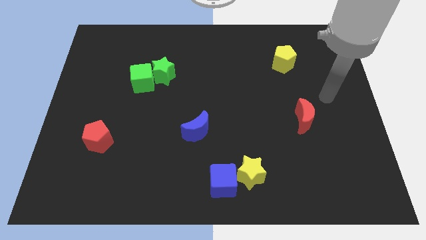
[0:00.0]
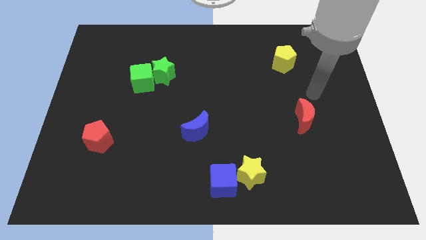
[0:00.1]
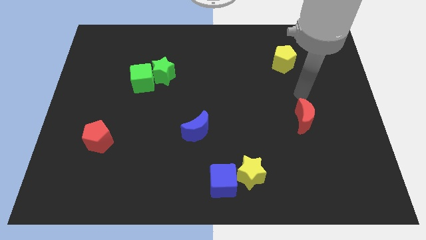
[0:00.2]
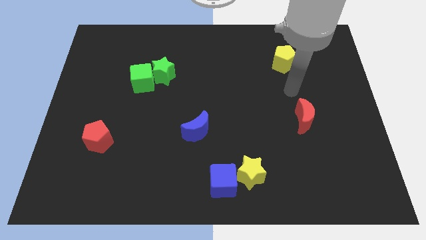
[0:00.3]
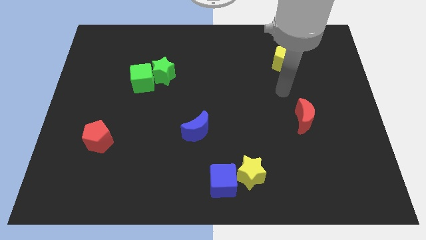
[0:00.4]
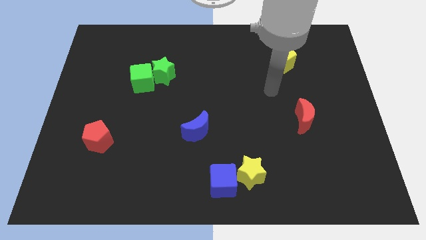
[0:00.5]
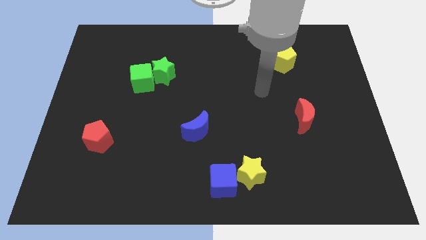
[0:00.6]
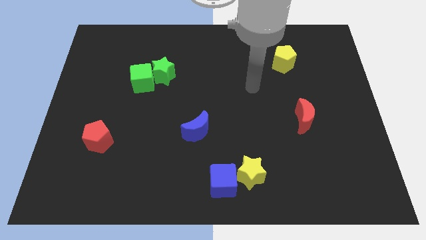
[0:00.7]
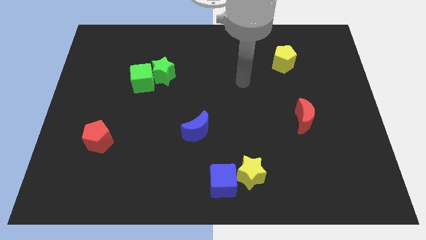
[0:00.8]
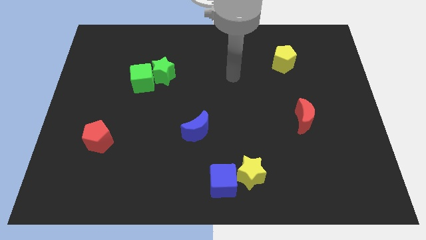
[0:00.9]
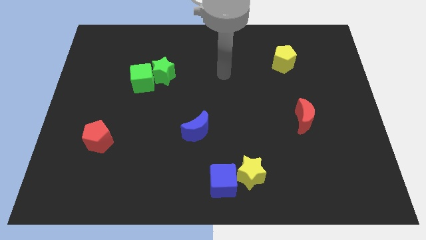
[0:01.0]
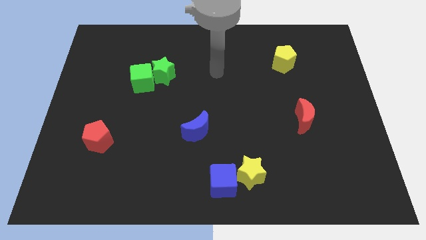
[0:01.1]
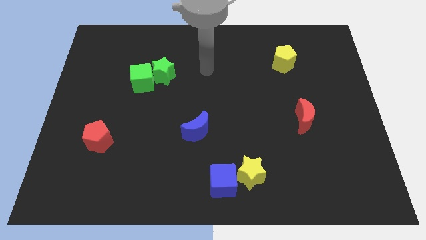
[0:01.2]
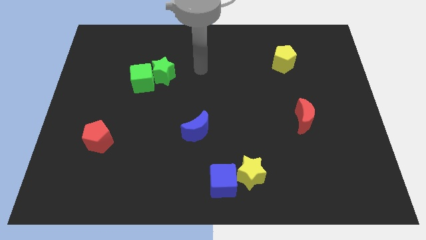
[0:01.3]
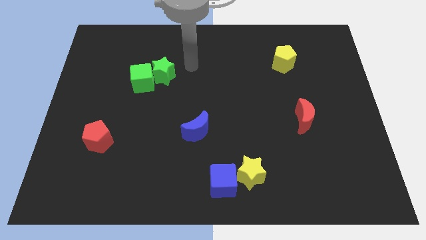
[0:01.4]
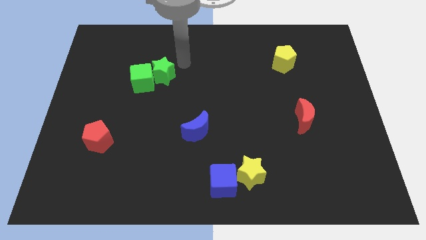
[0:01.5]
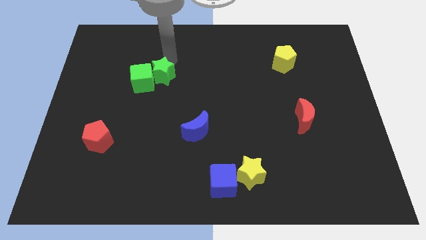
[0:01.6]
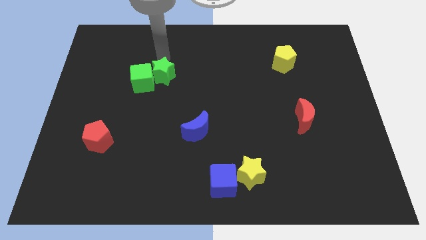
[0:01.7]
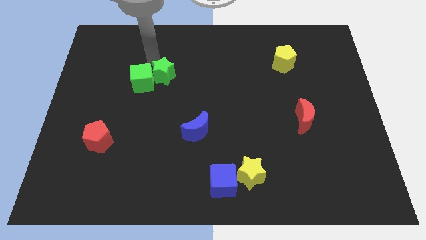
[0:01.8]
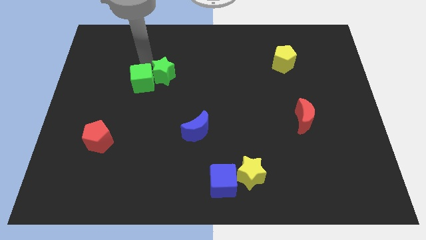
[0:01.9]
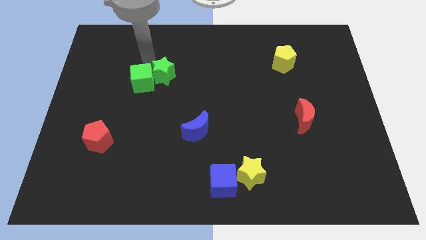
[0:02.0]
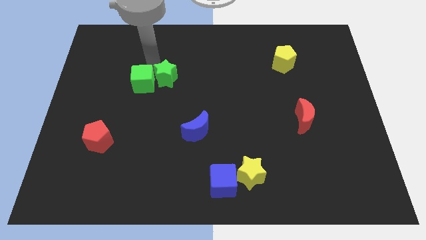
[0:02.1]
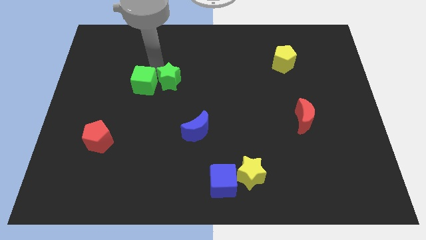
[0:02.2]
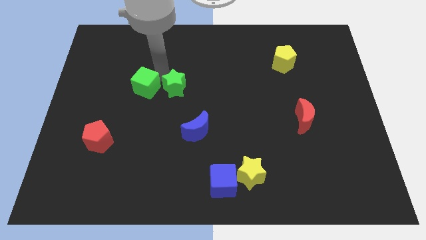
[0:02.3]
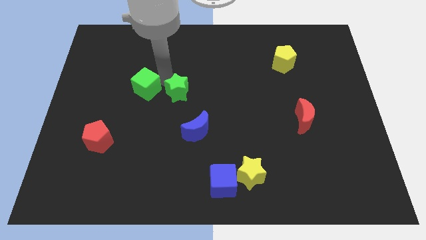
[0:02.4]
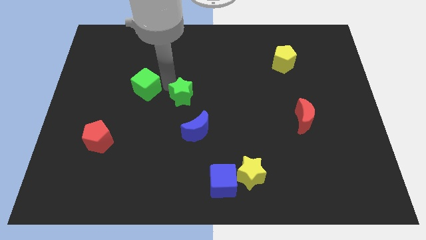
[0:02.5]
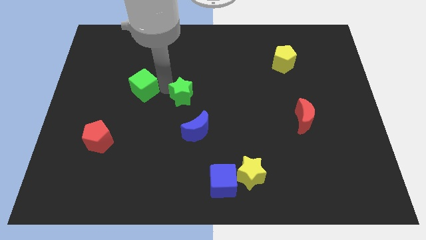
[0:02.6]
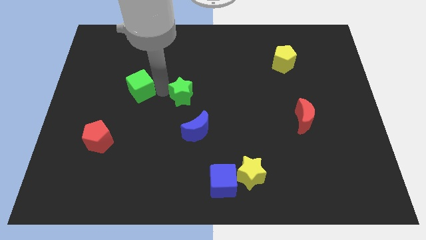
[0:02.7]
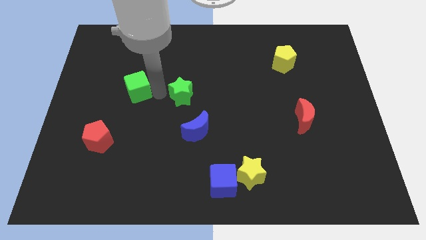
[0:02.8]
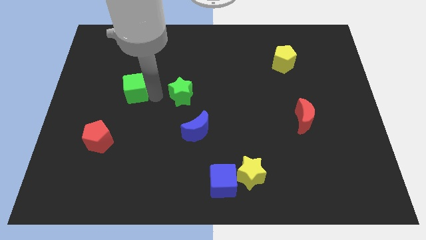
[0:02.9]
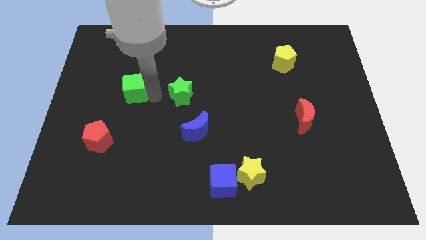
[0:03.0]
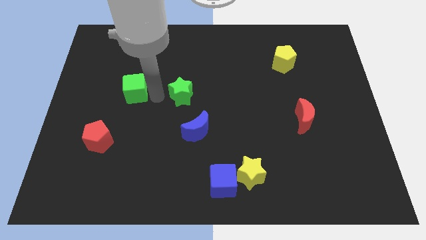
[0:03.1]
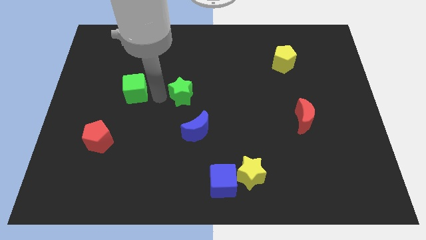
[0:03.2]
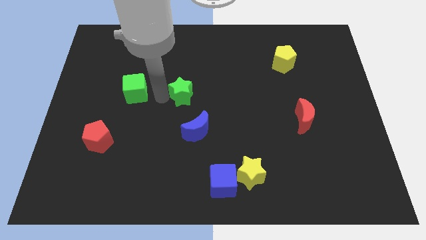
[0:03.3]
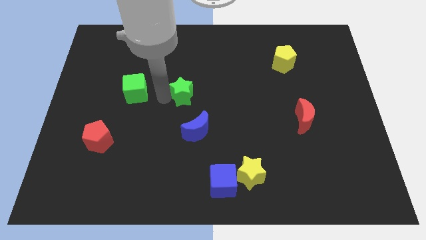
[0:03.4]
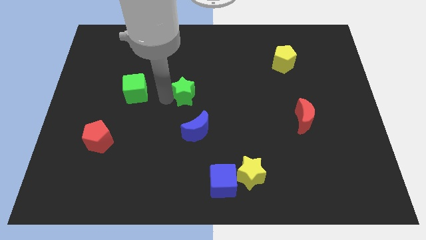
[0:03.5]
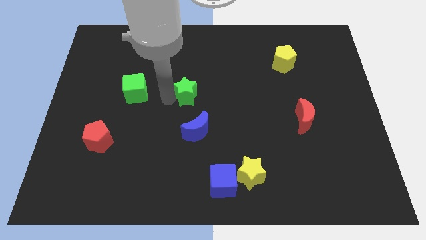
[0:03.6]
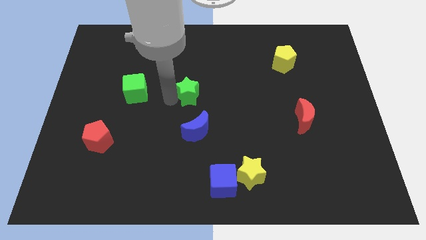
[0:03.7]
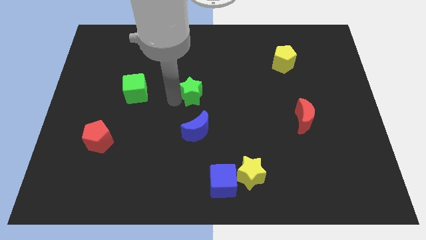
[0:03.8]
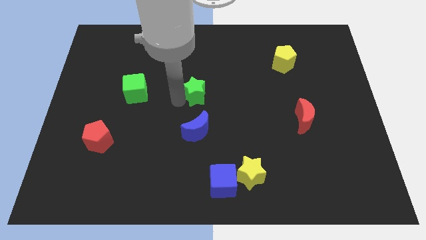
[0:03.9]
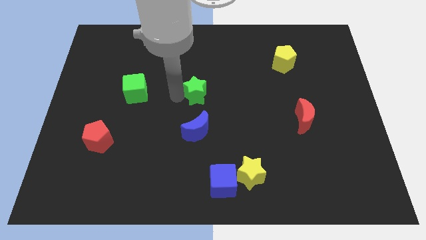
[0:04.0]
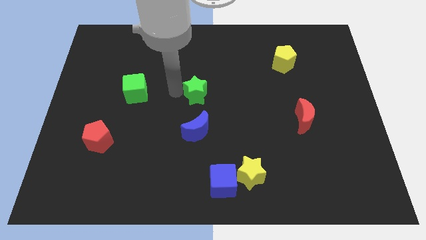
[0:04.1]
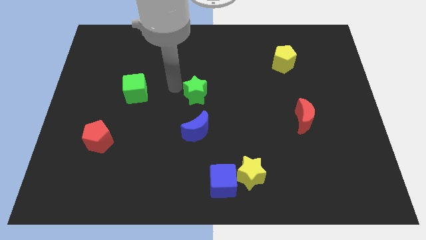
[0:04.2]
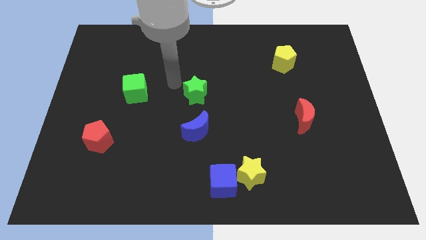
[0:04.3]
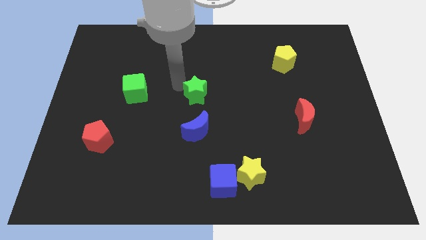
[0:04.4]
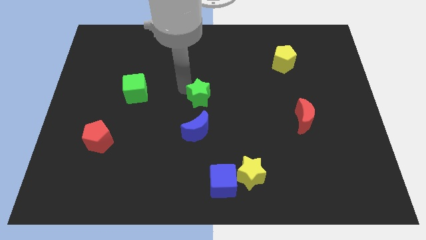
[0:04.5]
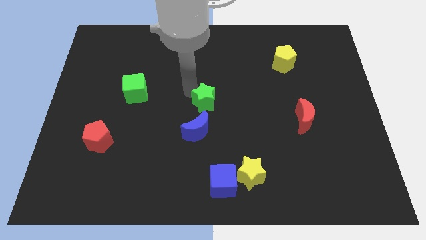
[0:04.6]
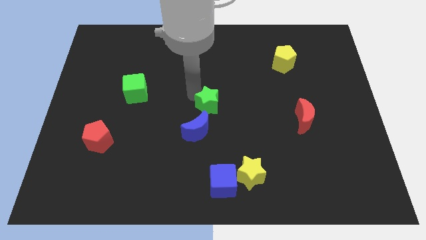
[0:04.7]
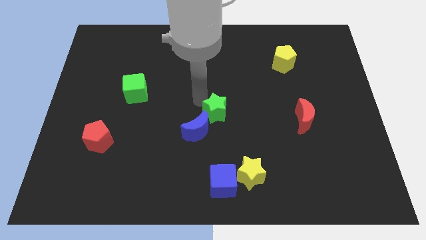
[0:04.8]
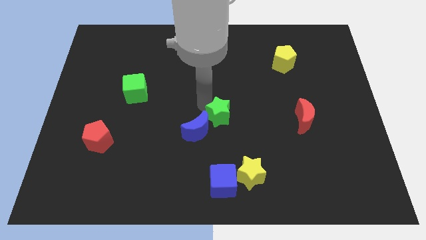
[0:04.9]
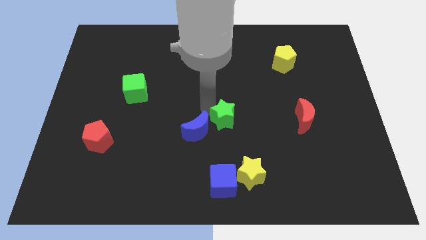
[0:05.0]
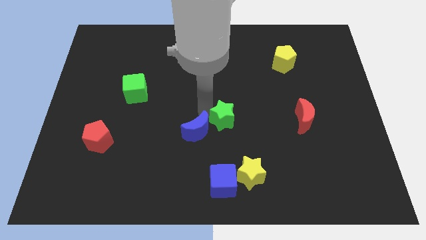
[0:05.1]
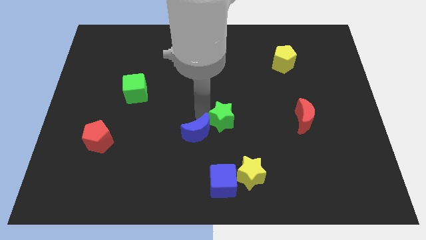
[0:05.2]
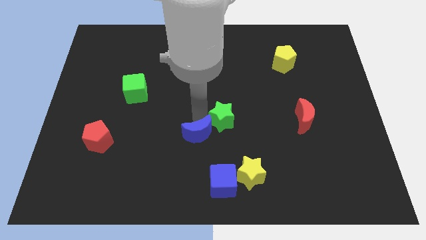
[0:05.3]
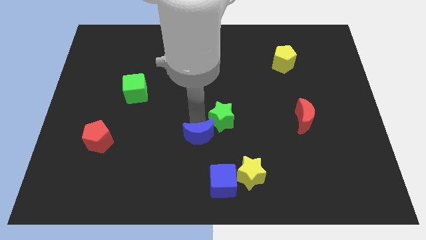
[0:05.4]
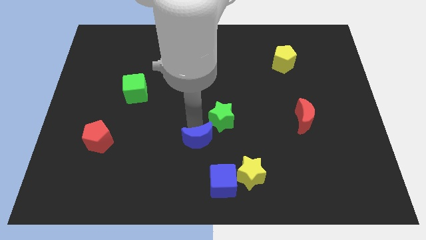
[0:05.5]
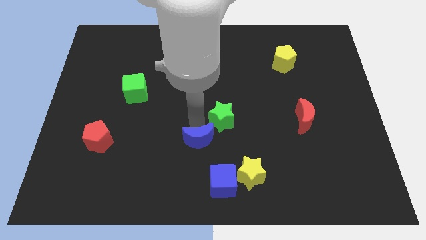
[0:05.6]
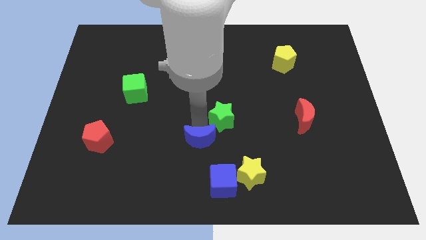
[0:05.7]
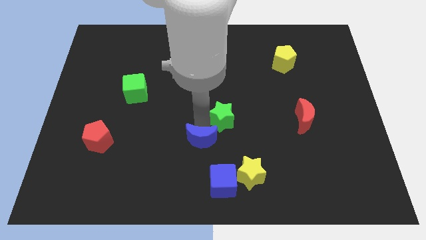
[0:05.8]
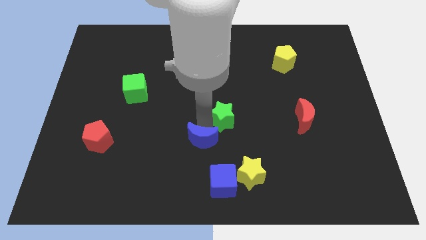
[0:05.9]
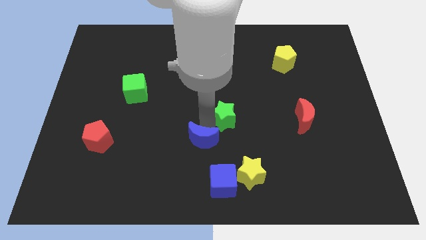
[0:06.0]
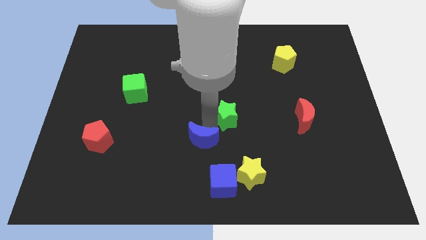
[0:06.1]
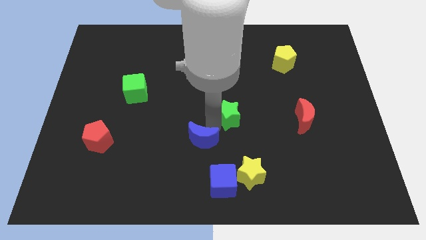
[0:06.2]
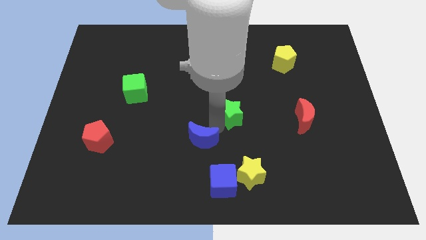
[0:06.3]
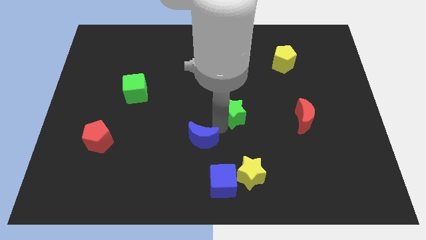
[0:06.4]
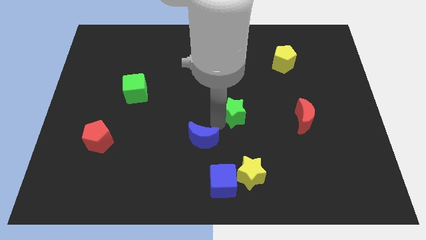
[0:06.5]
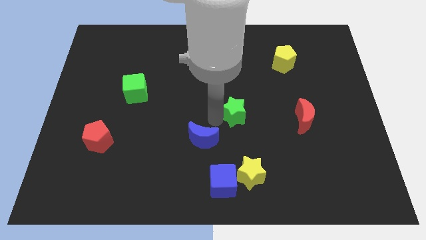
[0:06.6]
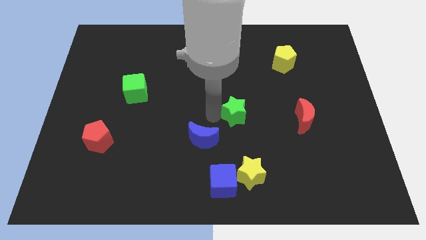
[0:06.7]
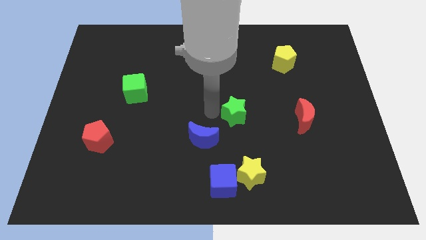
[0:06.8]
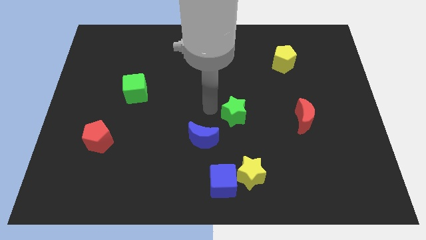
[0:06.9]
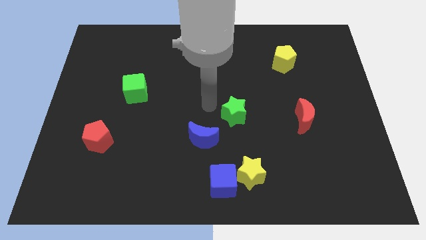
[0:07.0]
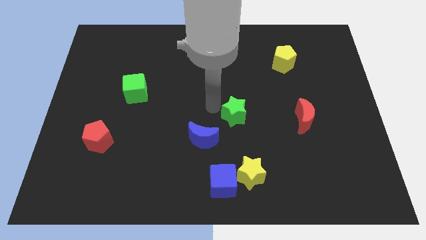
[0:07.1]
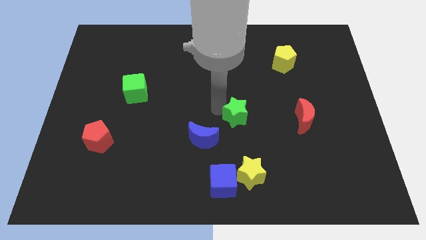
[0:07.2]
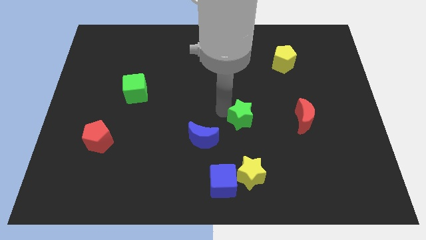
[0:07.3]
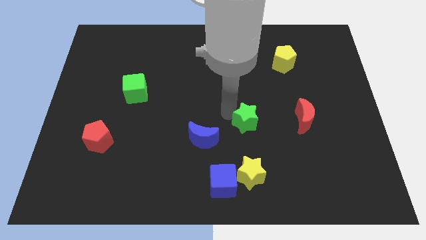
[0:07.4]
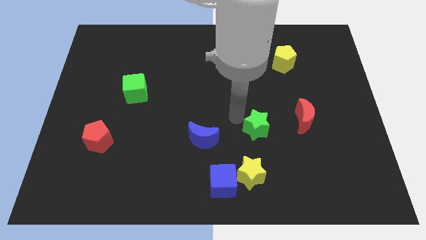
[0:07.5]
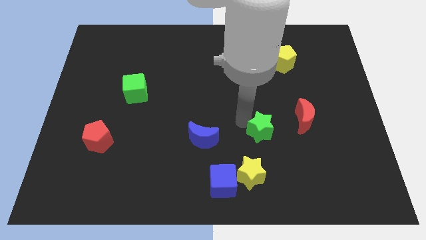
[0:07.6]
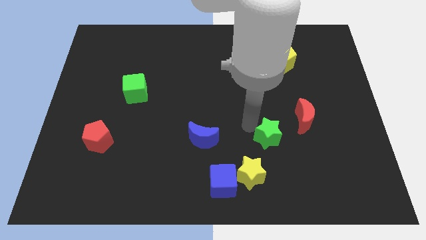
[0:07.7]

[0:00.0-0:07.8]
slide the green star diagonally down and to the left of the red moon

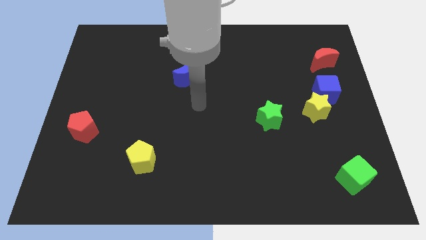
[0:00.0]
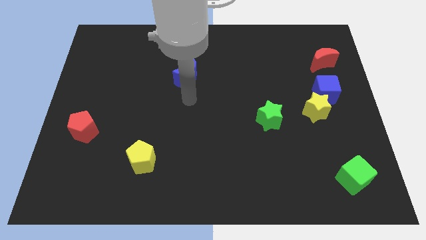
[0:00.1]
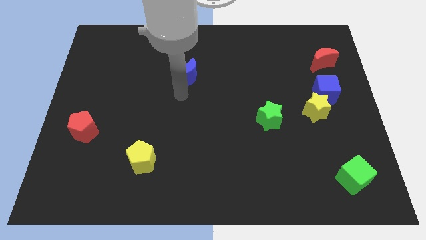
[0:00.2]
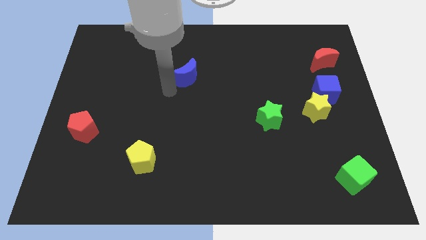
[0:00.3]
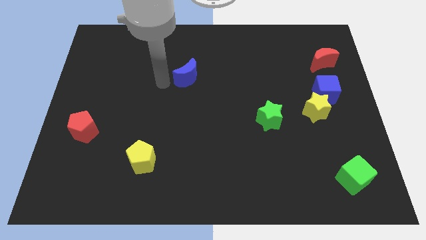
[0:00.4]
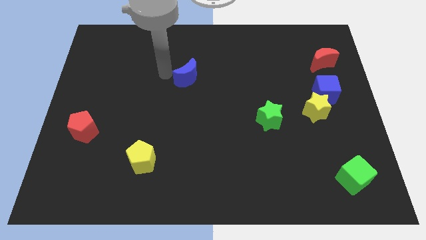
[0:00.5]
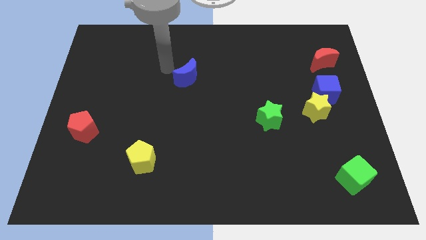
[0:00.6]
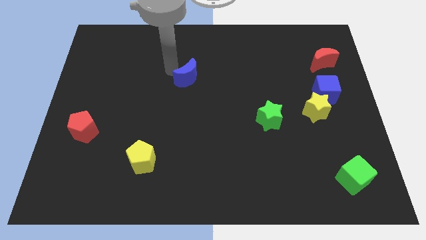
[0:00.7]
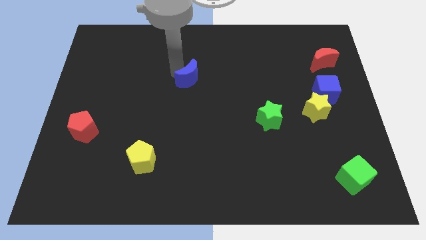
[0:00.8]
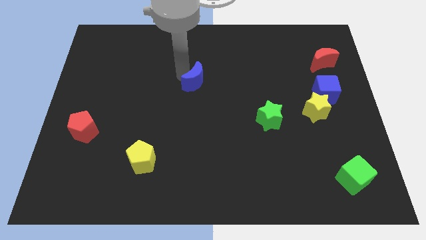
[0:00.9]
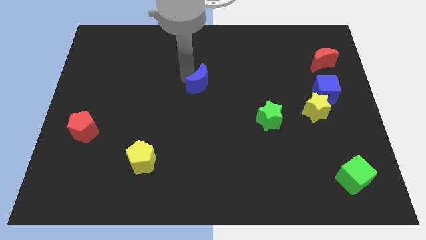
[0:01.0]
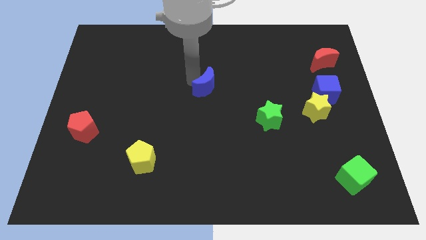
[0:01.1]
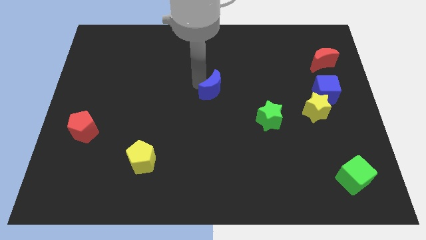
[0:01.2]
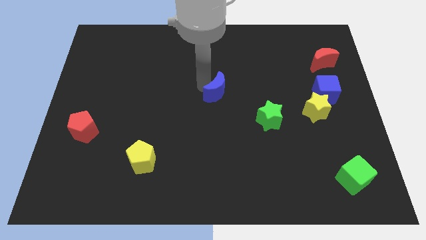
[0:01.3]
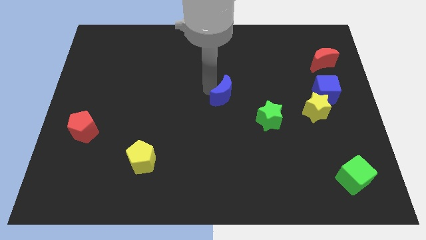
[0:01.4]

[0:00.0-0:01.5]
push the blue moon diagonally up and to the left of the green star
